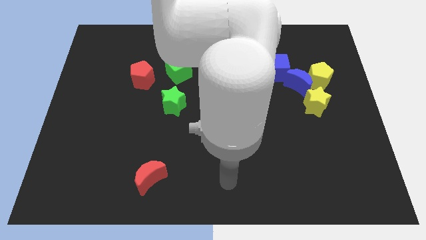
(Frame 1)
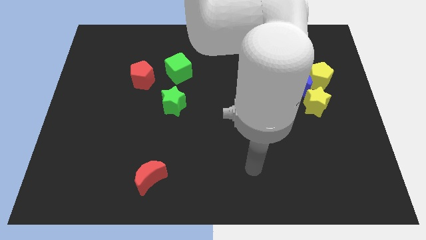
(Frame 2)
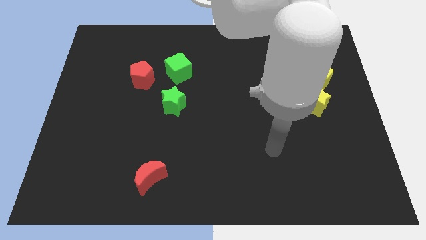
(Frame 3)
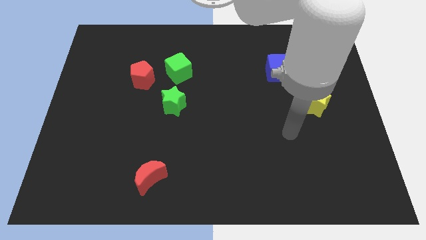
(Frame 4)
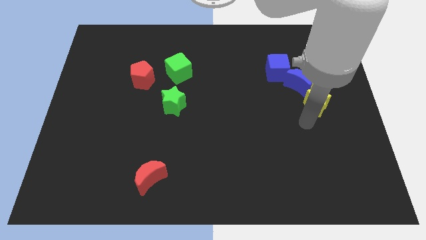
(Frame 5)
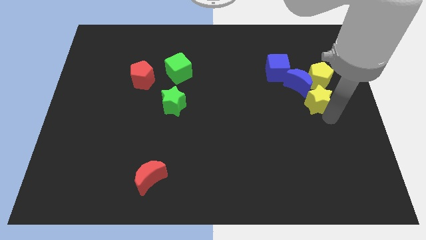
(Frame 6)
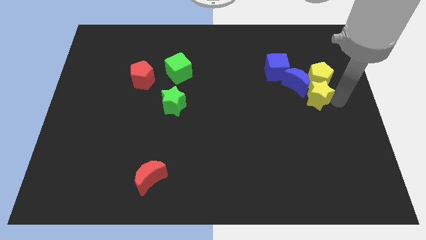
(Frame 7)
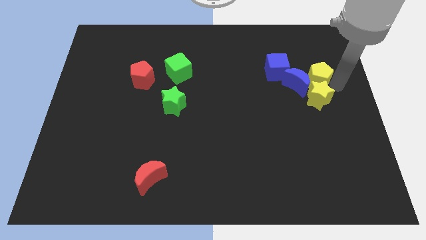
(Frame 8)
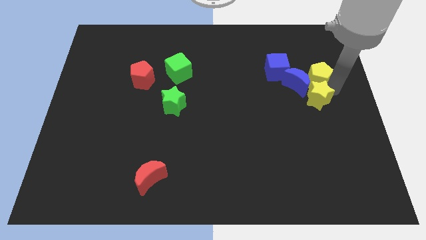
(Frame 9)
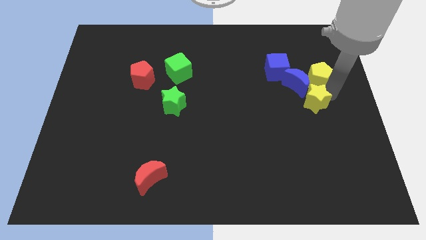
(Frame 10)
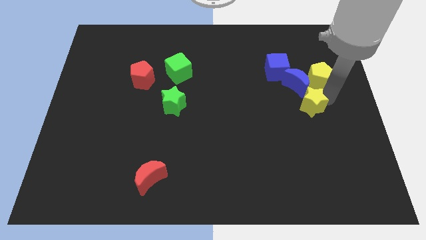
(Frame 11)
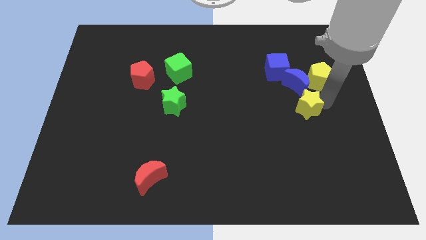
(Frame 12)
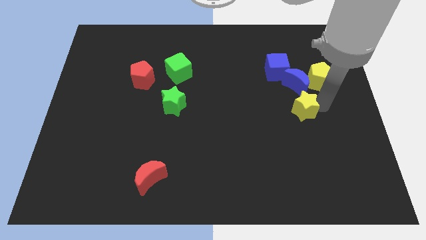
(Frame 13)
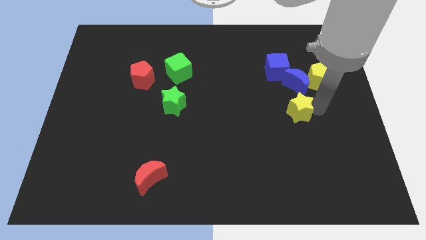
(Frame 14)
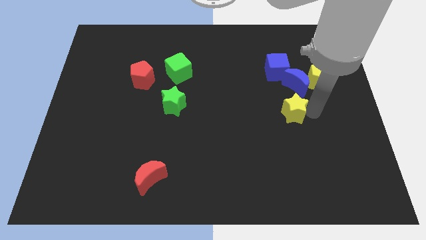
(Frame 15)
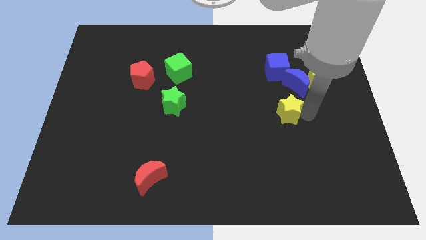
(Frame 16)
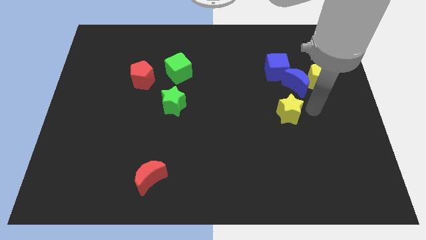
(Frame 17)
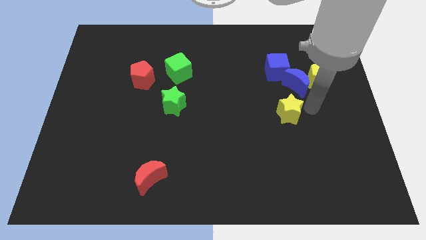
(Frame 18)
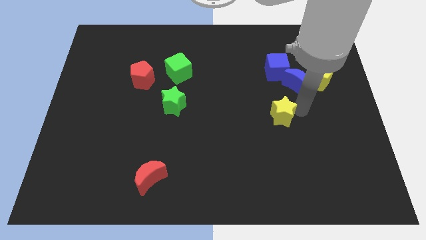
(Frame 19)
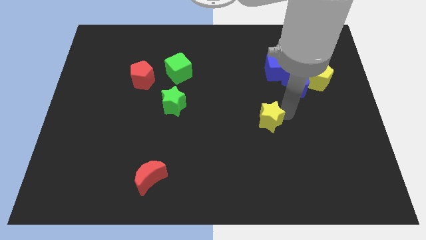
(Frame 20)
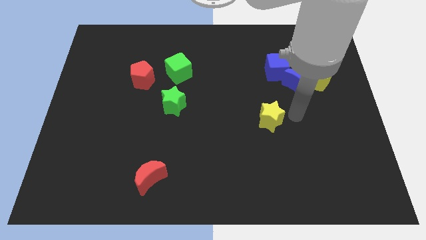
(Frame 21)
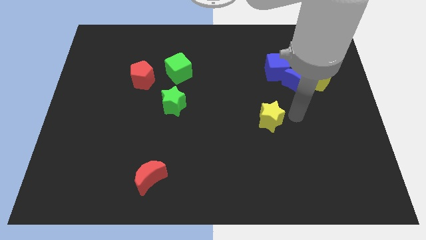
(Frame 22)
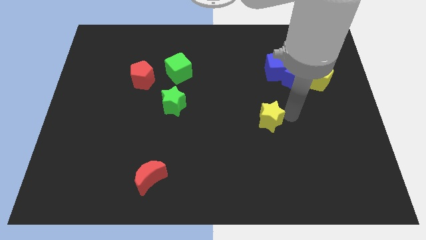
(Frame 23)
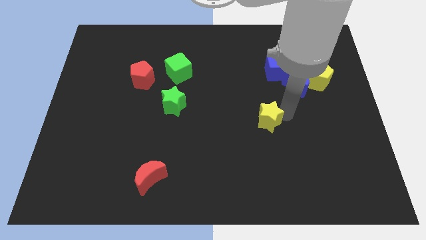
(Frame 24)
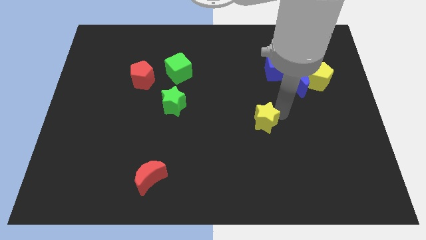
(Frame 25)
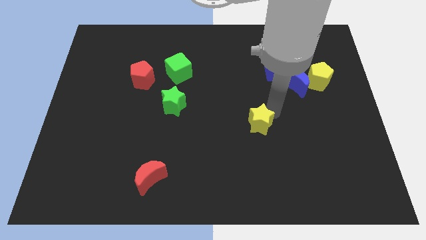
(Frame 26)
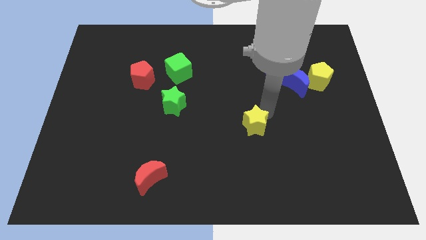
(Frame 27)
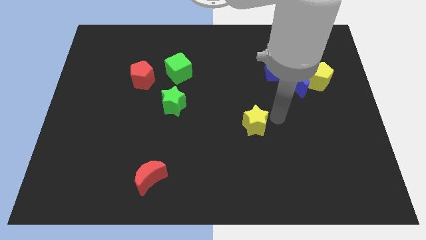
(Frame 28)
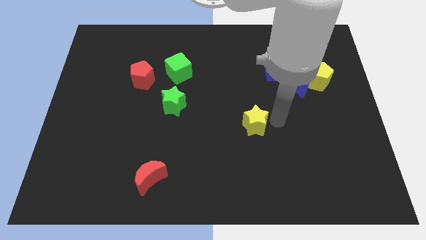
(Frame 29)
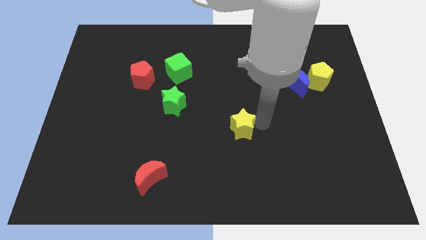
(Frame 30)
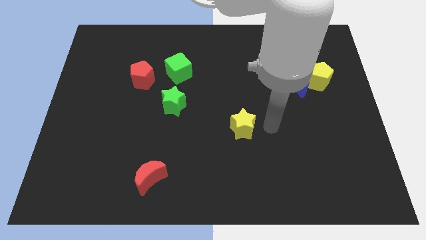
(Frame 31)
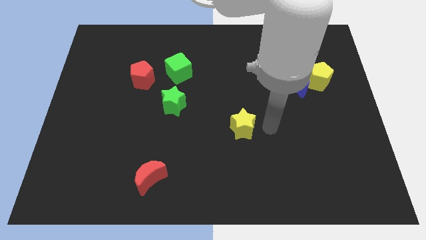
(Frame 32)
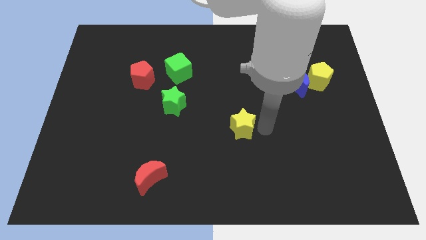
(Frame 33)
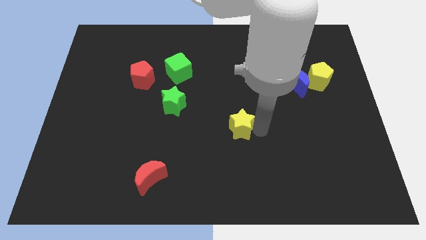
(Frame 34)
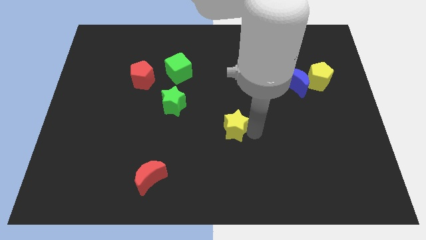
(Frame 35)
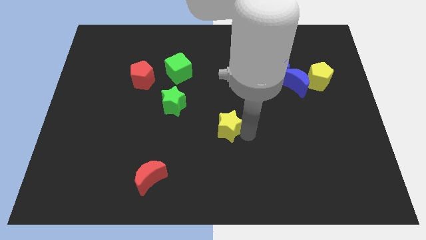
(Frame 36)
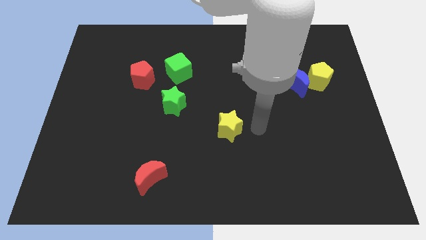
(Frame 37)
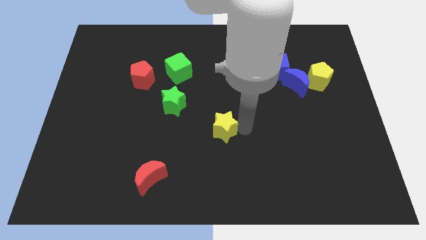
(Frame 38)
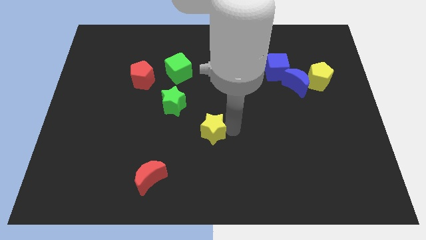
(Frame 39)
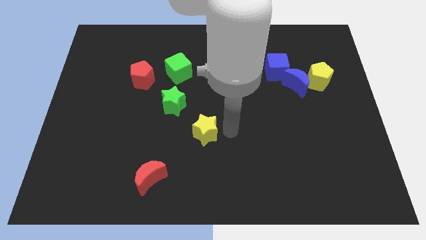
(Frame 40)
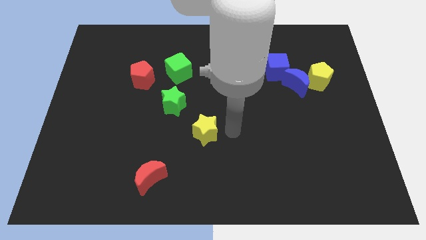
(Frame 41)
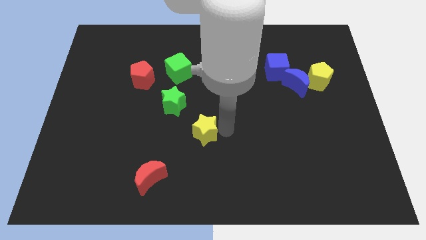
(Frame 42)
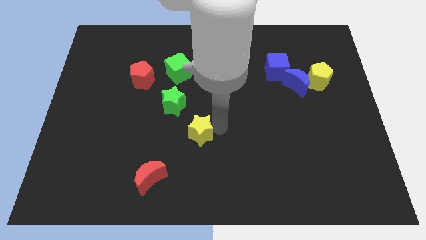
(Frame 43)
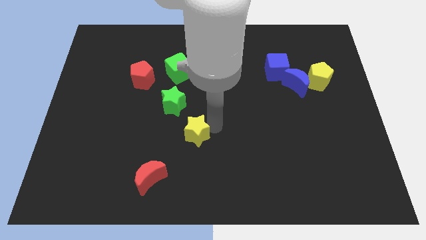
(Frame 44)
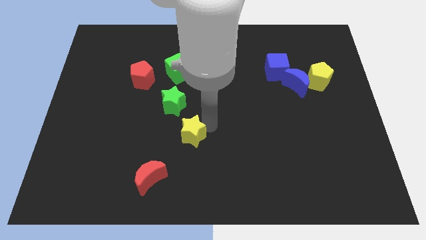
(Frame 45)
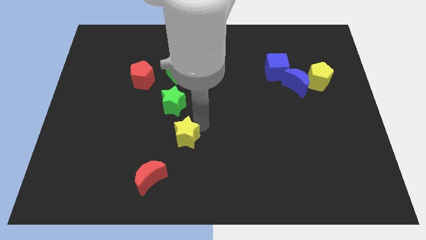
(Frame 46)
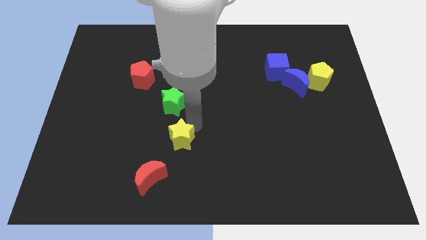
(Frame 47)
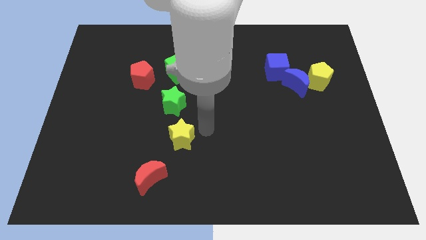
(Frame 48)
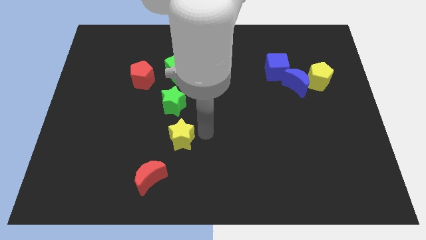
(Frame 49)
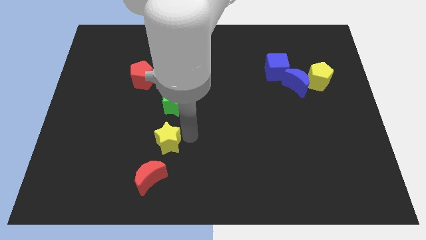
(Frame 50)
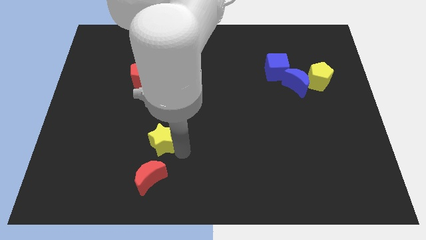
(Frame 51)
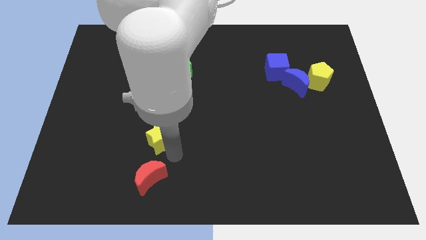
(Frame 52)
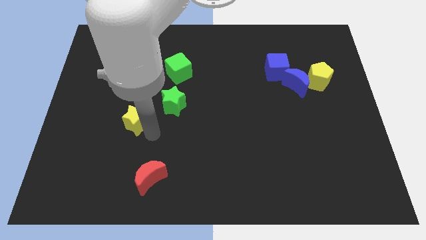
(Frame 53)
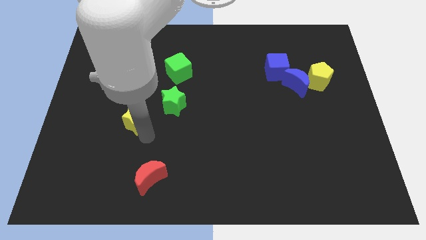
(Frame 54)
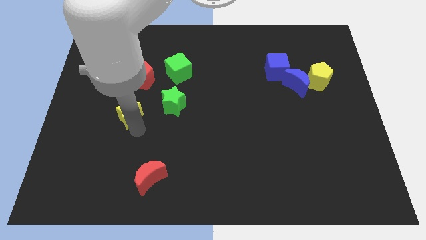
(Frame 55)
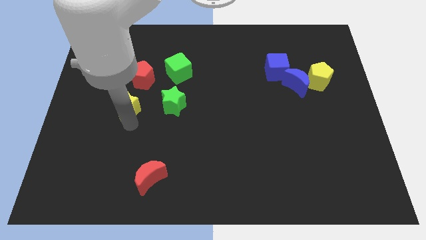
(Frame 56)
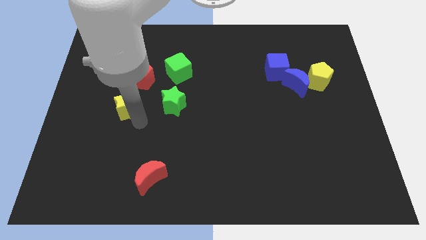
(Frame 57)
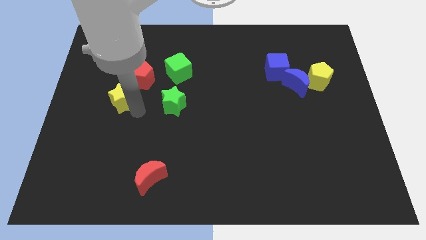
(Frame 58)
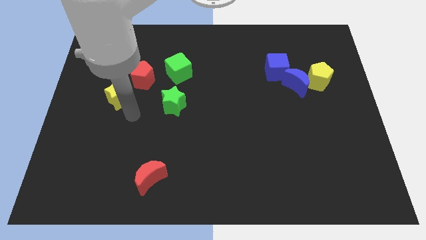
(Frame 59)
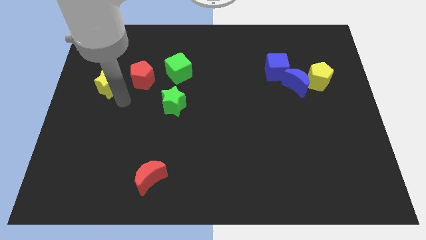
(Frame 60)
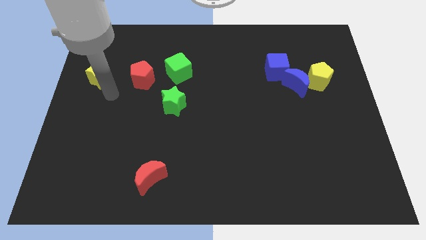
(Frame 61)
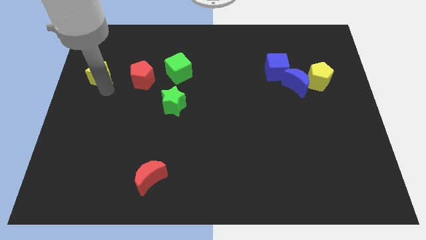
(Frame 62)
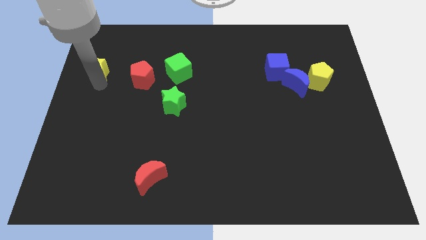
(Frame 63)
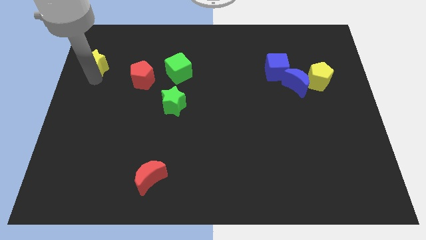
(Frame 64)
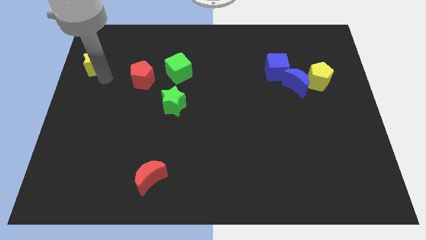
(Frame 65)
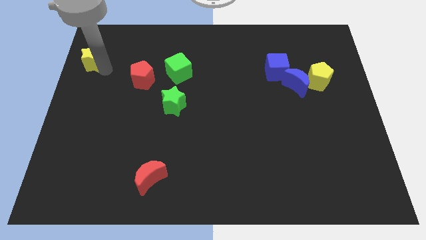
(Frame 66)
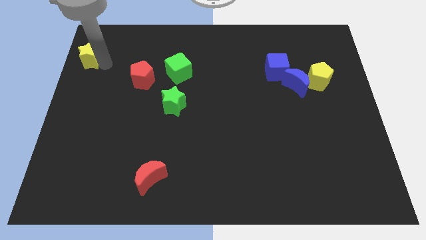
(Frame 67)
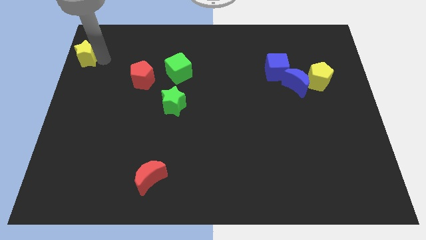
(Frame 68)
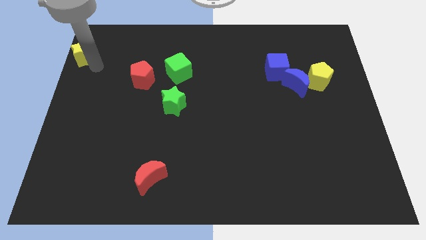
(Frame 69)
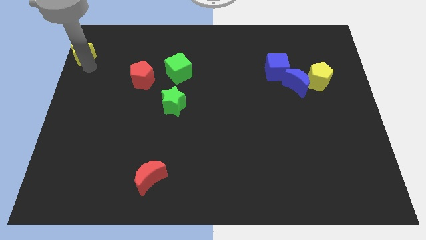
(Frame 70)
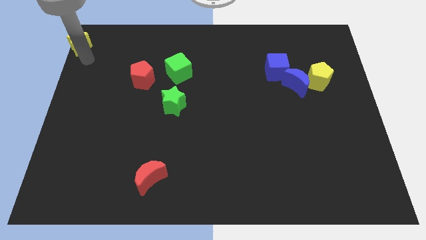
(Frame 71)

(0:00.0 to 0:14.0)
move the yellow star to the top left corner
